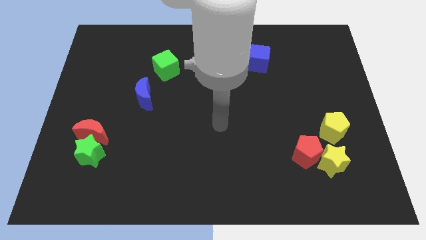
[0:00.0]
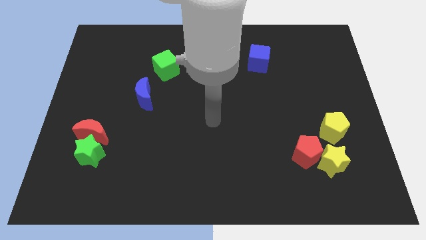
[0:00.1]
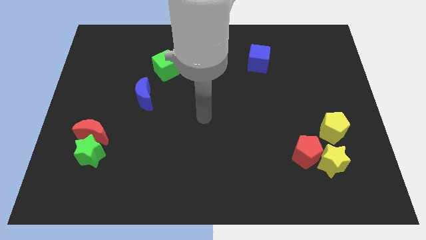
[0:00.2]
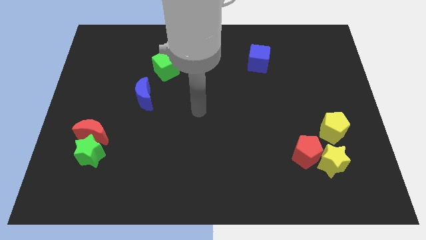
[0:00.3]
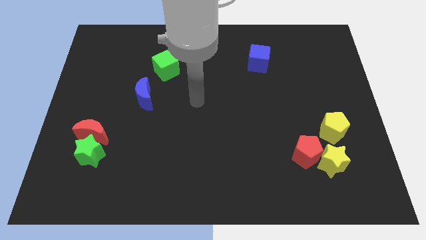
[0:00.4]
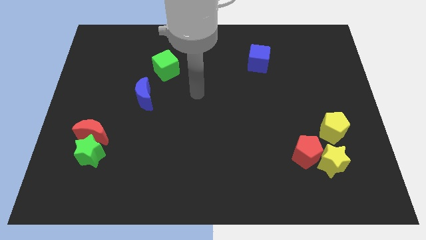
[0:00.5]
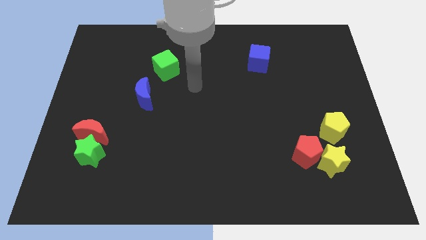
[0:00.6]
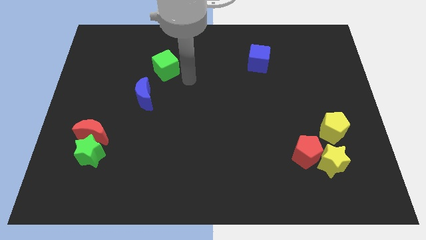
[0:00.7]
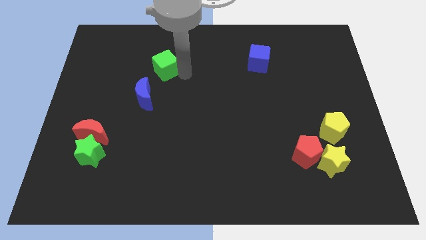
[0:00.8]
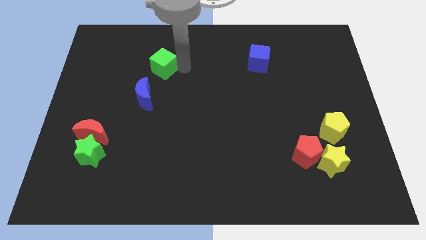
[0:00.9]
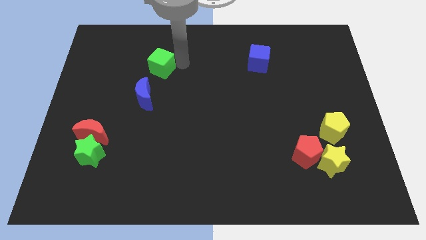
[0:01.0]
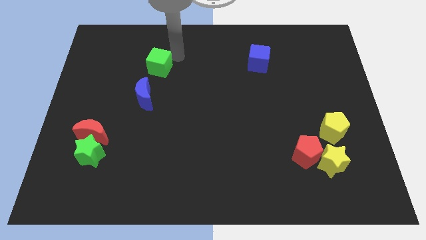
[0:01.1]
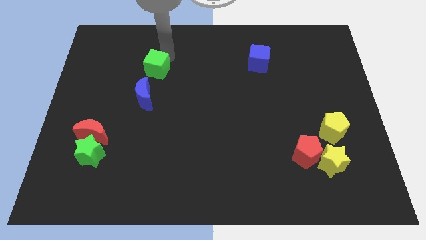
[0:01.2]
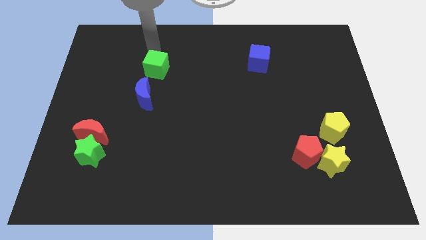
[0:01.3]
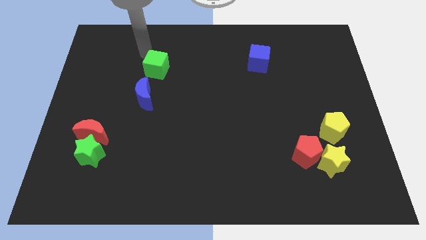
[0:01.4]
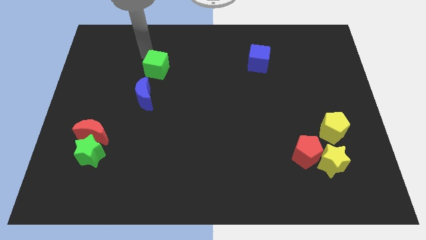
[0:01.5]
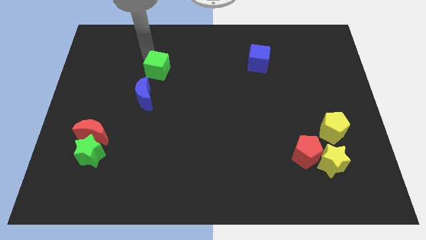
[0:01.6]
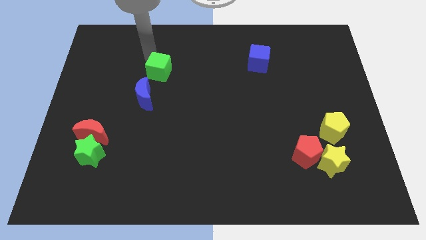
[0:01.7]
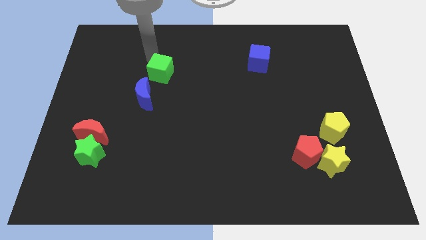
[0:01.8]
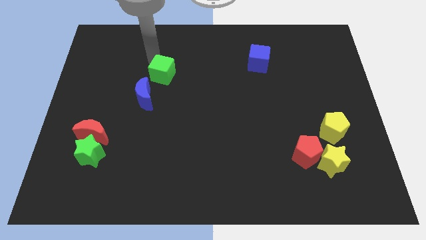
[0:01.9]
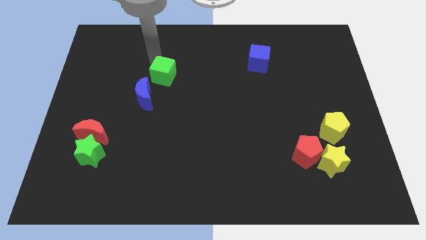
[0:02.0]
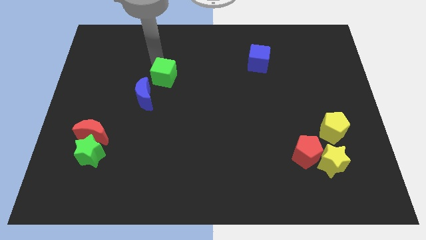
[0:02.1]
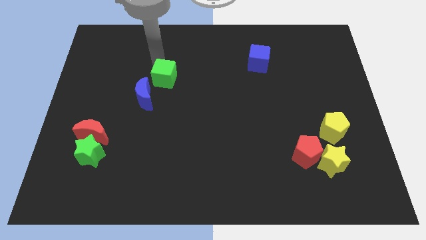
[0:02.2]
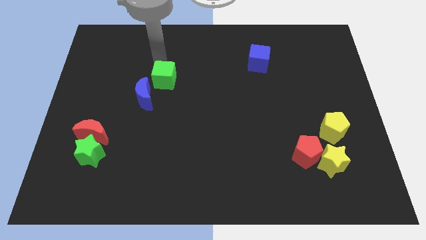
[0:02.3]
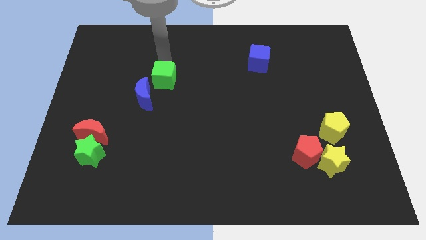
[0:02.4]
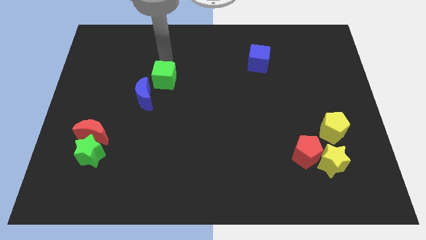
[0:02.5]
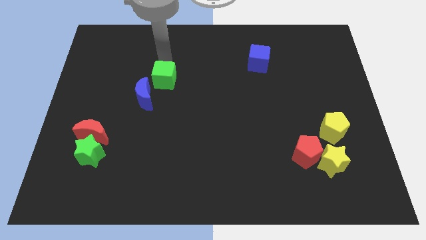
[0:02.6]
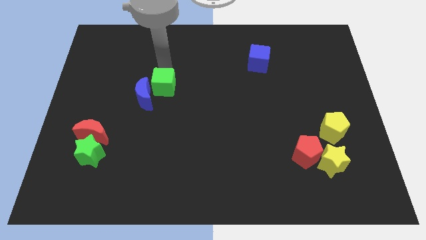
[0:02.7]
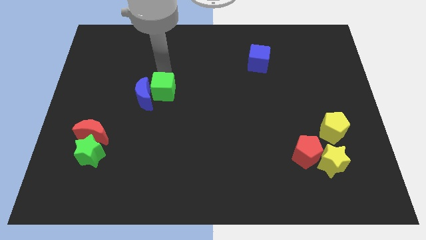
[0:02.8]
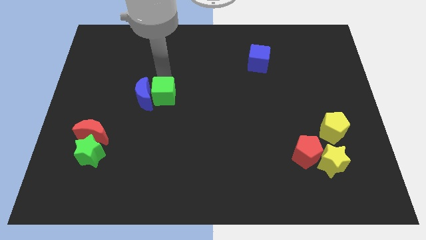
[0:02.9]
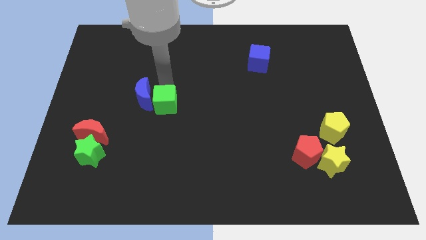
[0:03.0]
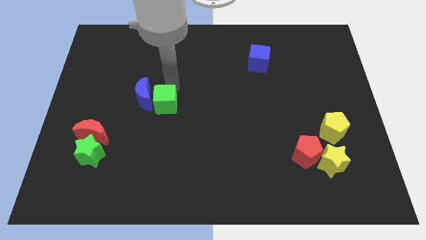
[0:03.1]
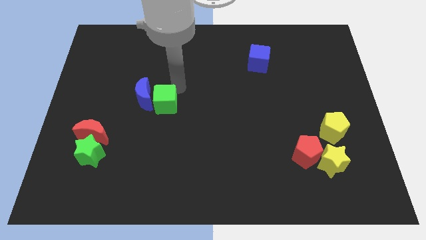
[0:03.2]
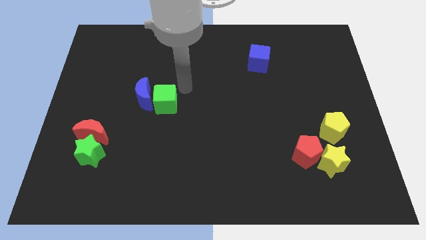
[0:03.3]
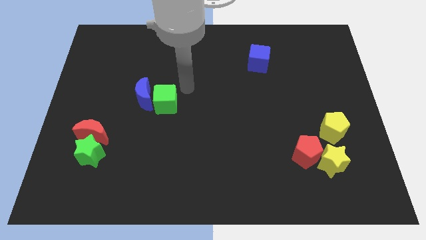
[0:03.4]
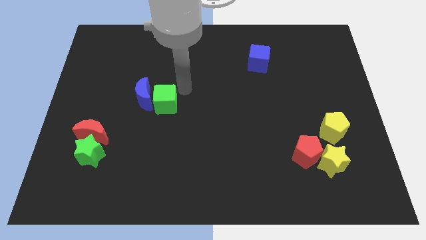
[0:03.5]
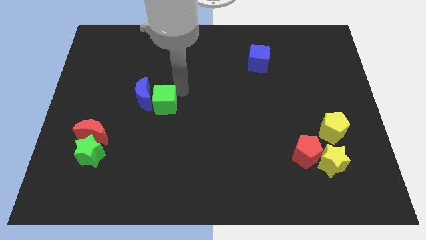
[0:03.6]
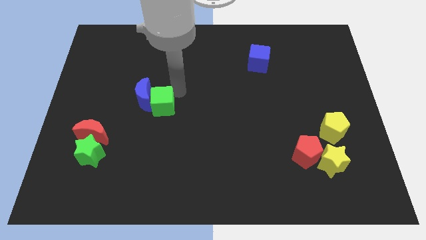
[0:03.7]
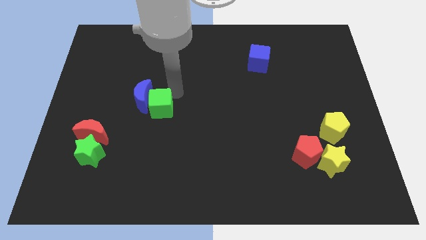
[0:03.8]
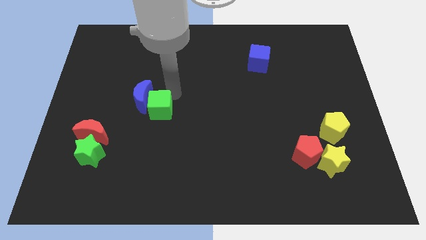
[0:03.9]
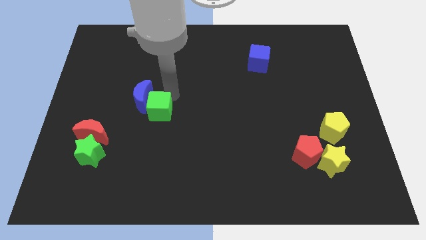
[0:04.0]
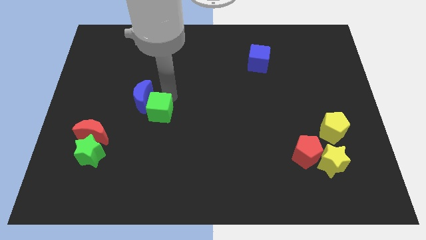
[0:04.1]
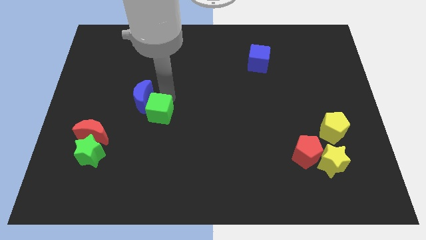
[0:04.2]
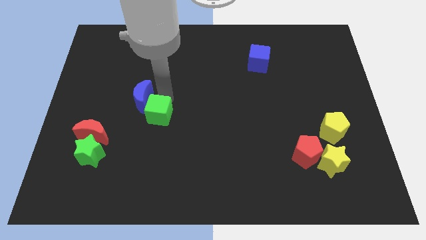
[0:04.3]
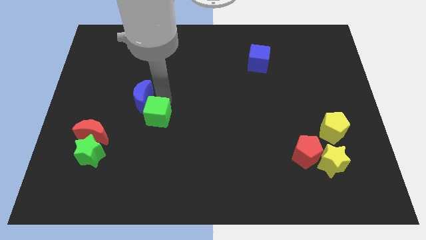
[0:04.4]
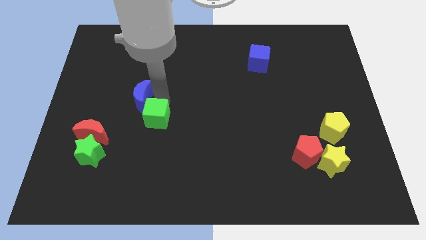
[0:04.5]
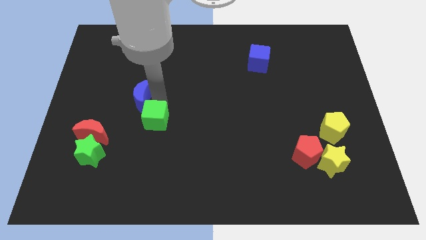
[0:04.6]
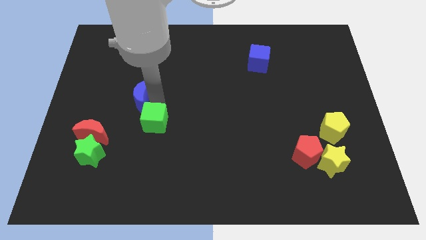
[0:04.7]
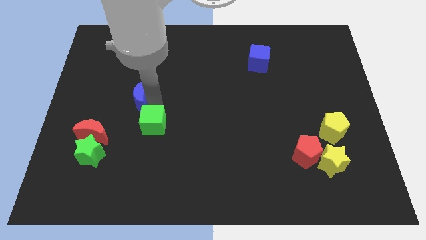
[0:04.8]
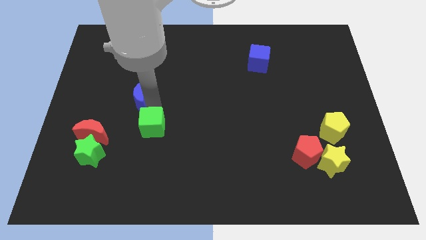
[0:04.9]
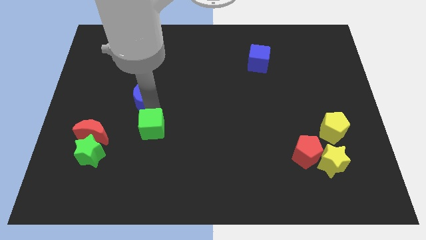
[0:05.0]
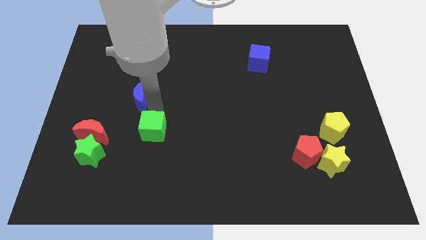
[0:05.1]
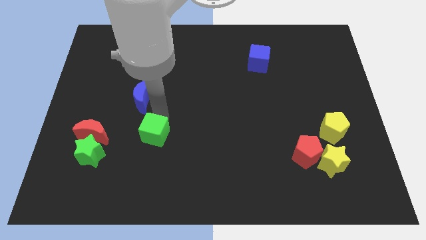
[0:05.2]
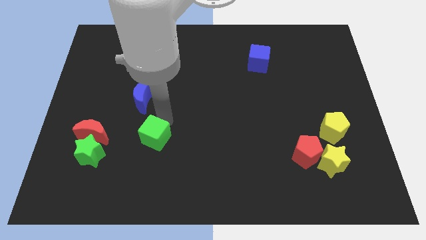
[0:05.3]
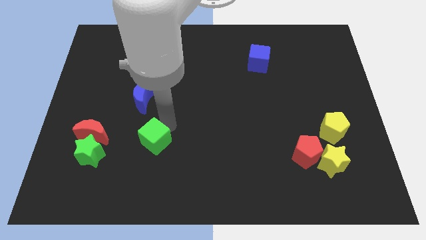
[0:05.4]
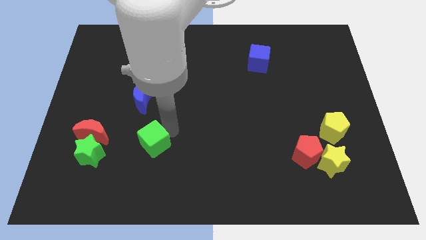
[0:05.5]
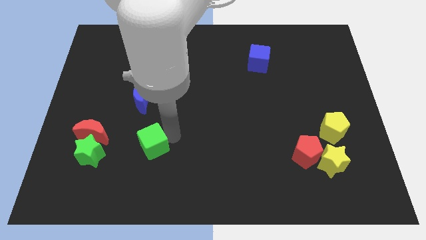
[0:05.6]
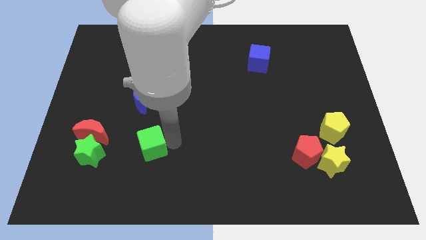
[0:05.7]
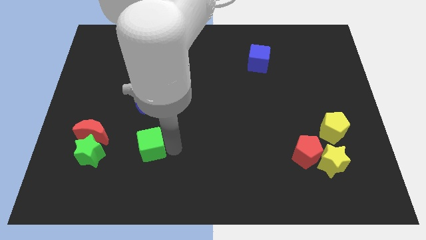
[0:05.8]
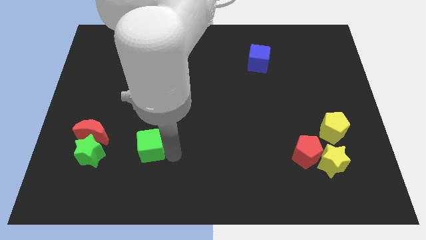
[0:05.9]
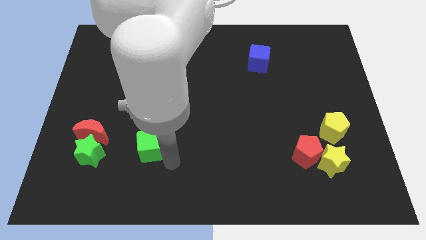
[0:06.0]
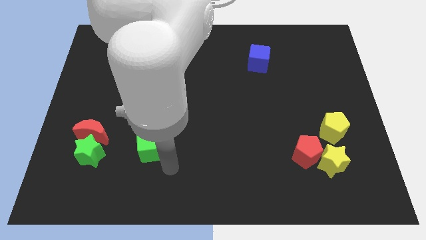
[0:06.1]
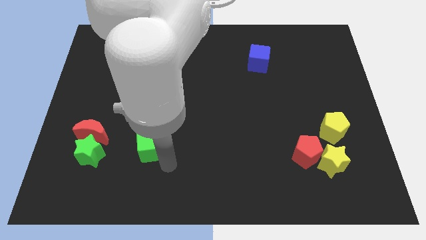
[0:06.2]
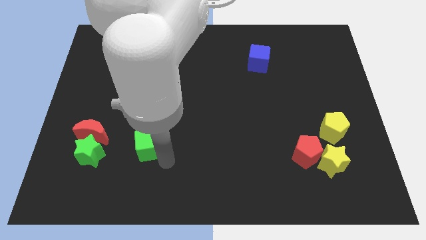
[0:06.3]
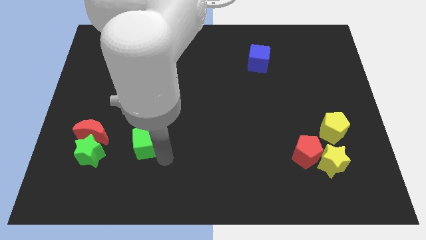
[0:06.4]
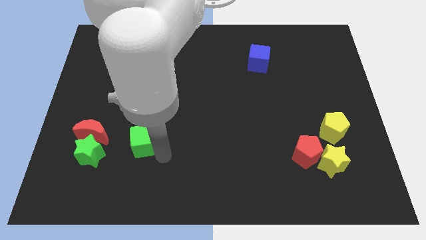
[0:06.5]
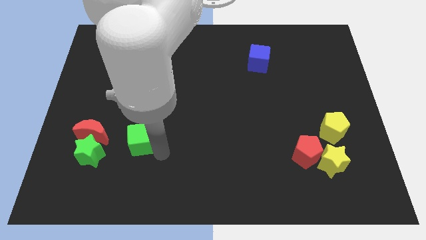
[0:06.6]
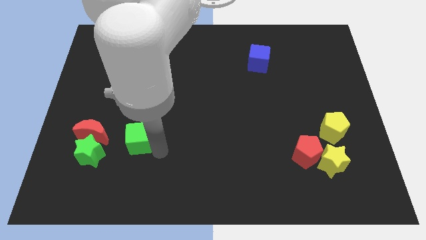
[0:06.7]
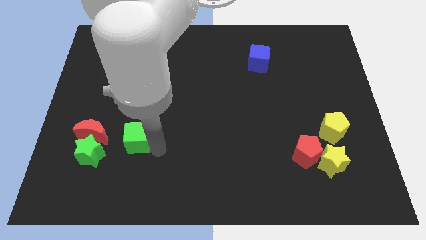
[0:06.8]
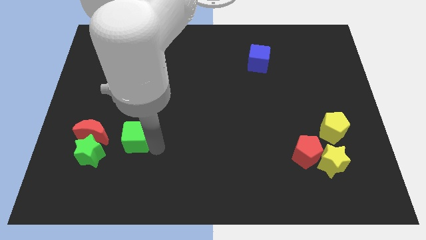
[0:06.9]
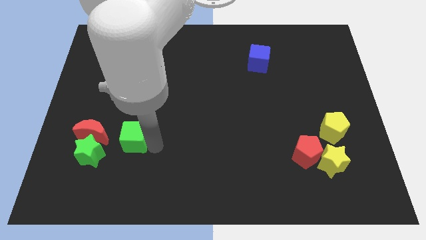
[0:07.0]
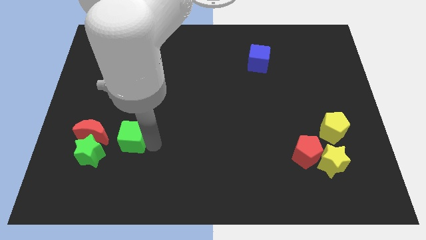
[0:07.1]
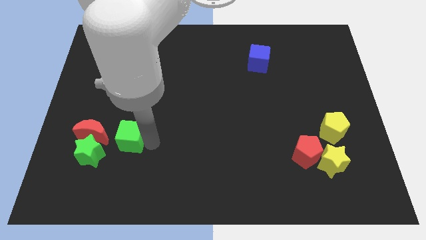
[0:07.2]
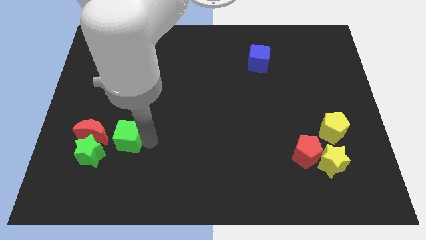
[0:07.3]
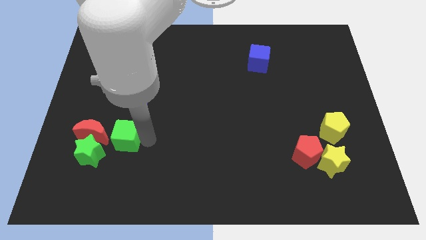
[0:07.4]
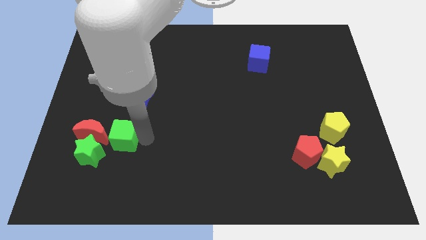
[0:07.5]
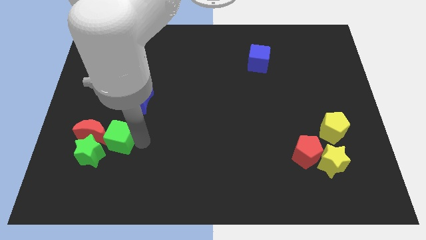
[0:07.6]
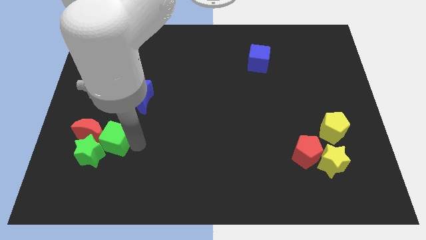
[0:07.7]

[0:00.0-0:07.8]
put the green cube close to the green star
